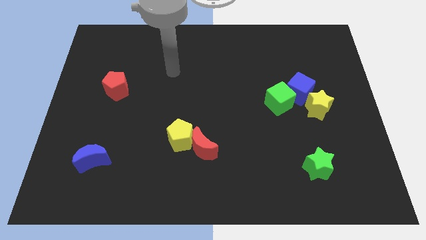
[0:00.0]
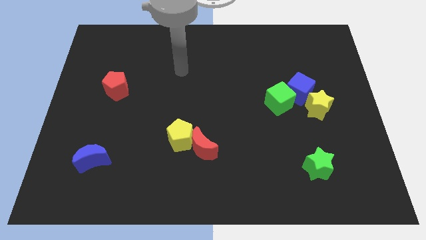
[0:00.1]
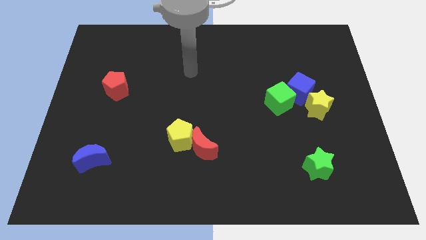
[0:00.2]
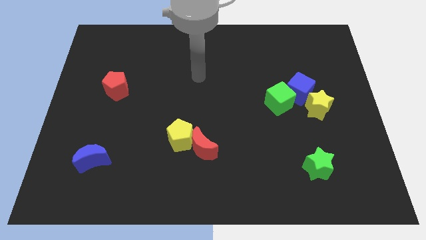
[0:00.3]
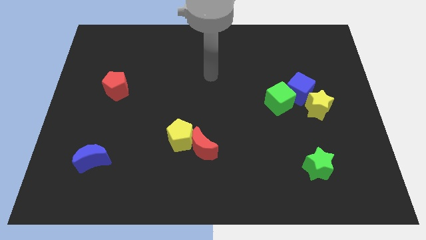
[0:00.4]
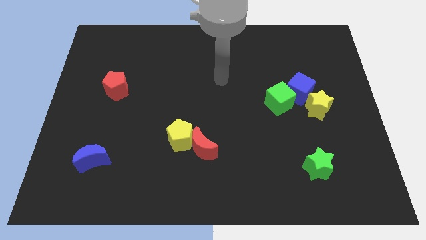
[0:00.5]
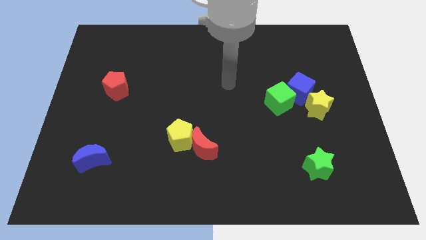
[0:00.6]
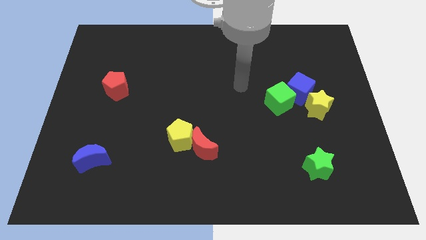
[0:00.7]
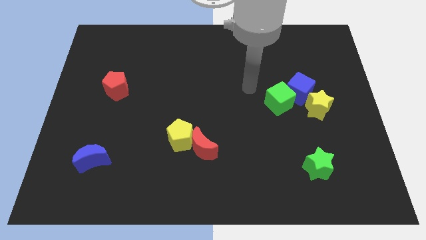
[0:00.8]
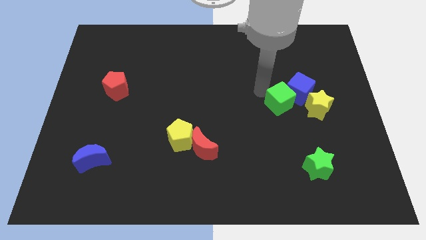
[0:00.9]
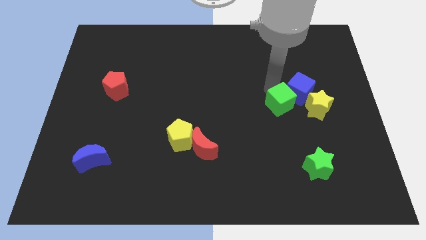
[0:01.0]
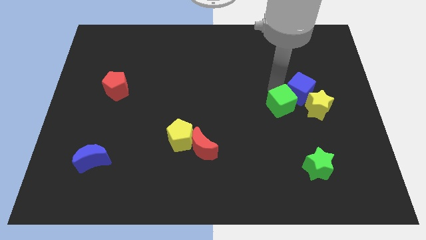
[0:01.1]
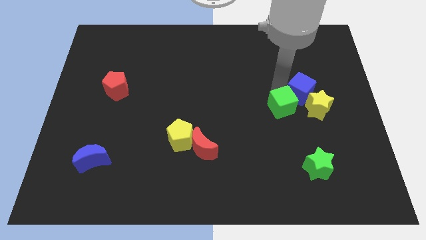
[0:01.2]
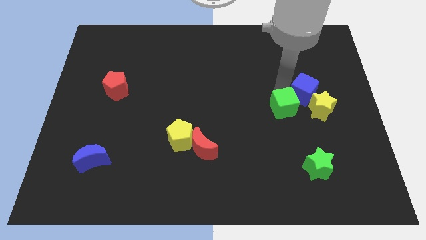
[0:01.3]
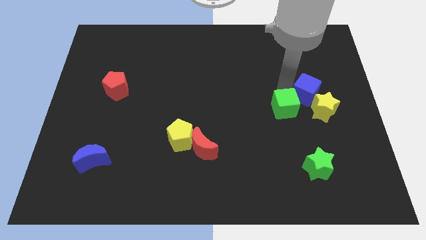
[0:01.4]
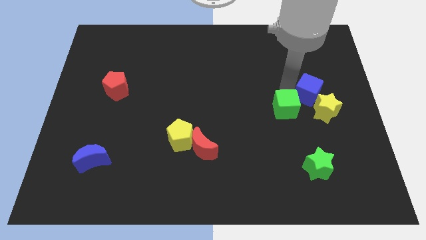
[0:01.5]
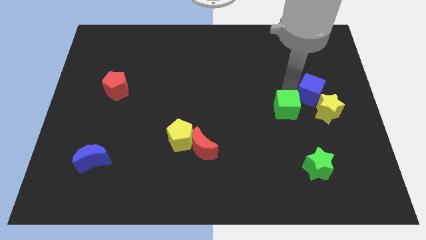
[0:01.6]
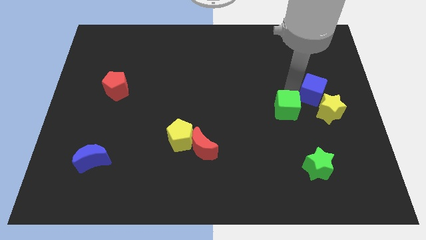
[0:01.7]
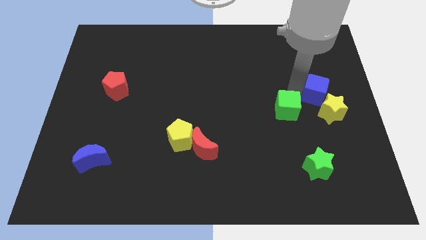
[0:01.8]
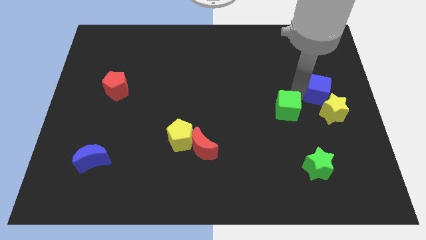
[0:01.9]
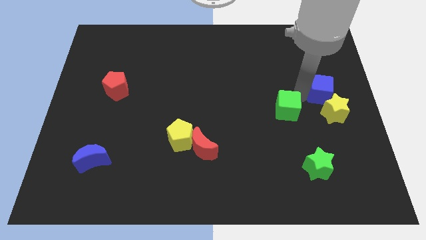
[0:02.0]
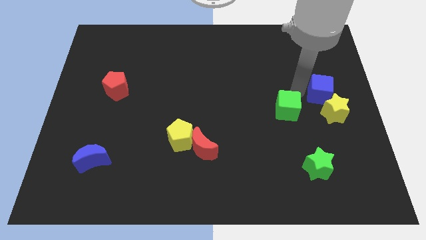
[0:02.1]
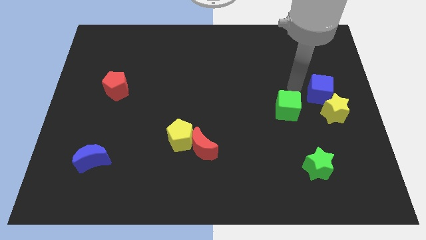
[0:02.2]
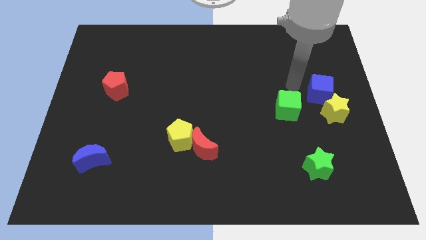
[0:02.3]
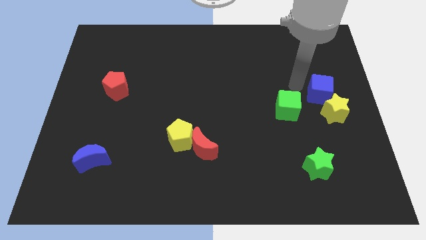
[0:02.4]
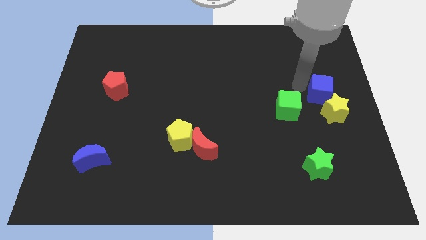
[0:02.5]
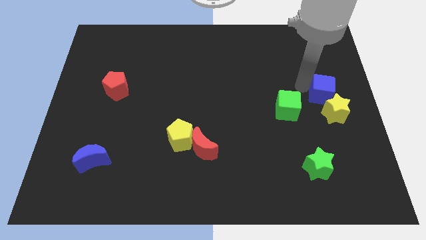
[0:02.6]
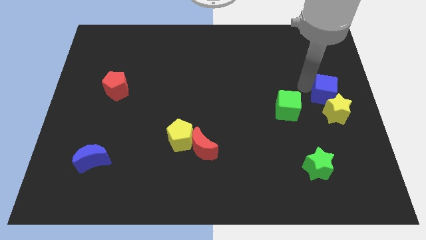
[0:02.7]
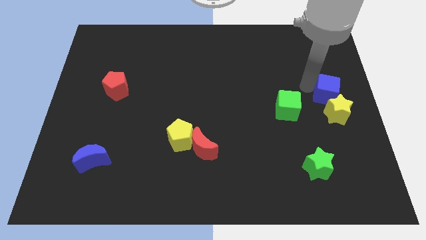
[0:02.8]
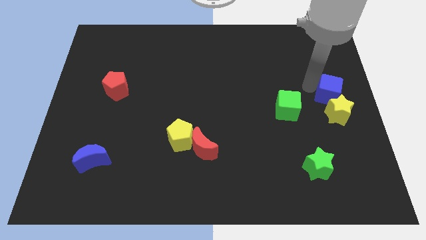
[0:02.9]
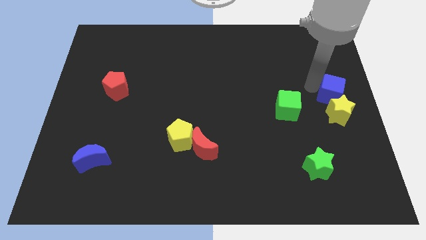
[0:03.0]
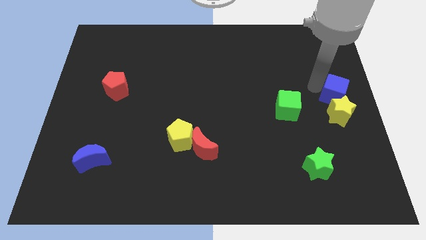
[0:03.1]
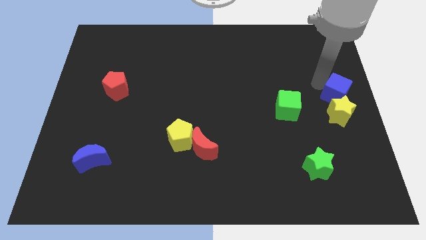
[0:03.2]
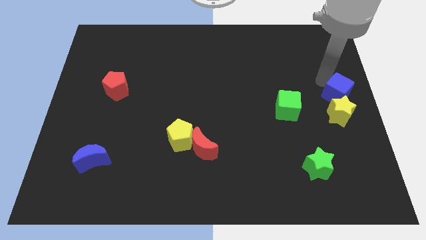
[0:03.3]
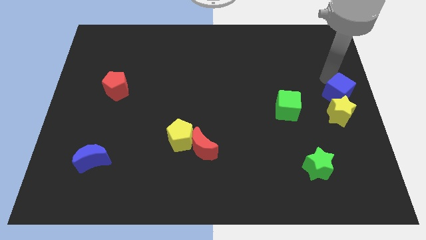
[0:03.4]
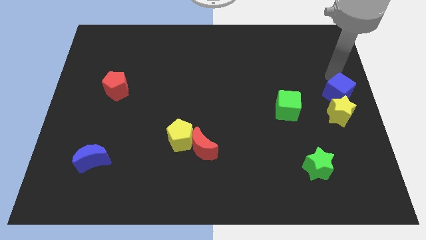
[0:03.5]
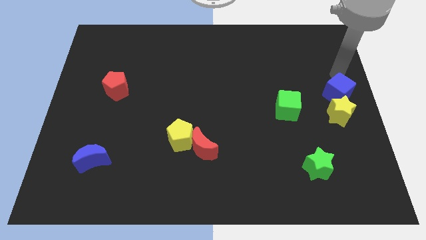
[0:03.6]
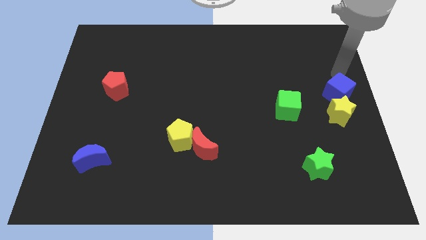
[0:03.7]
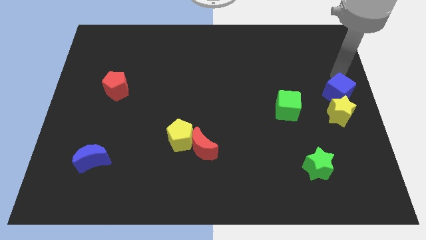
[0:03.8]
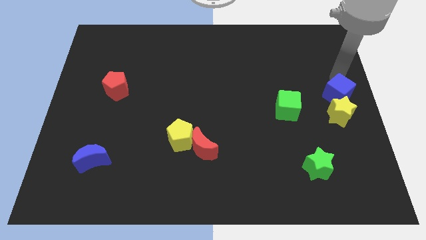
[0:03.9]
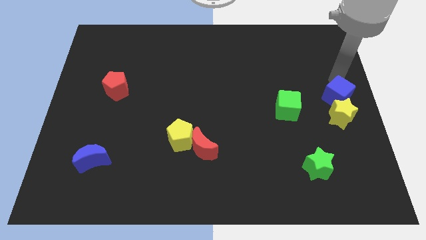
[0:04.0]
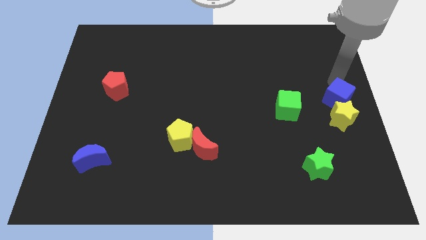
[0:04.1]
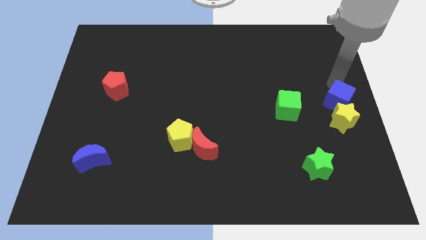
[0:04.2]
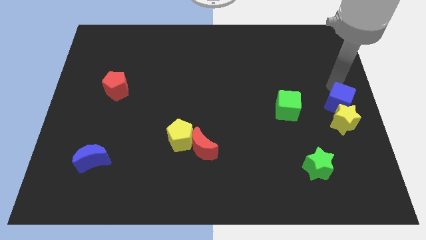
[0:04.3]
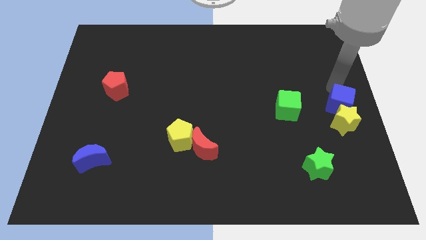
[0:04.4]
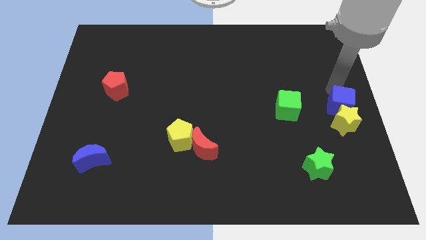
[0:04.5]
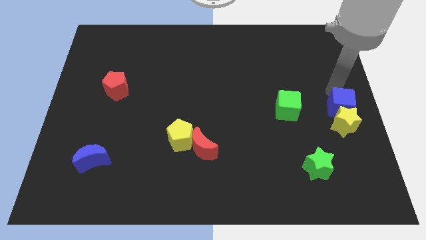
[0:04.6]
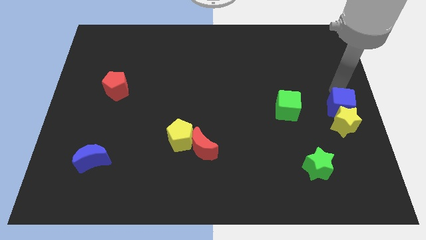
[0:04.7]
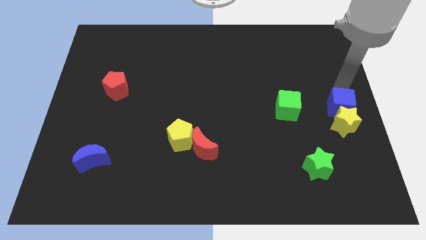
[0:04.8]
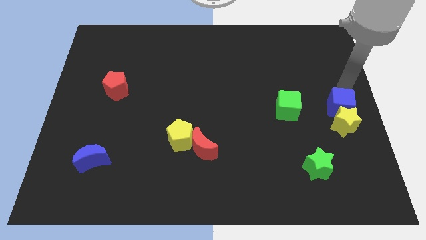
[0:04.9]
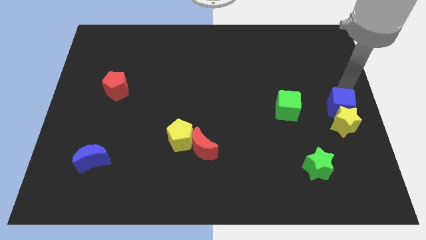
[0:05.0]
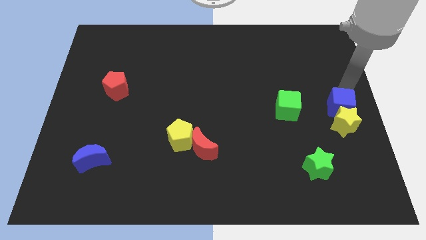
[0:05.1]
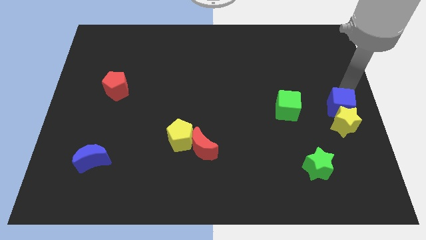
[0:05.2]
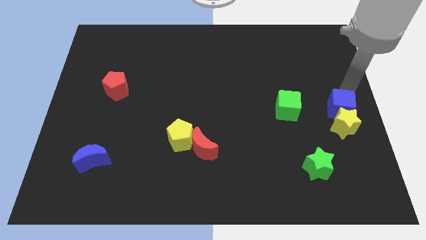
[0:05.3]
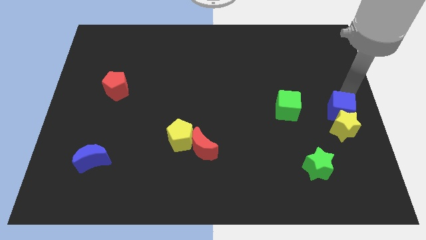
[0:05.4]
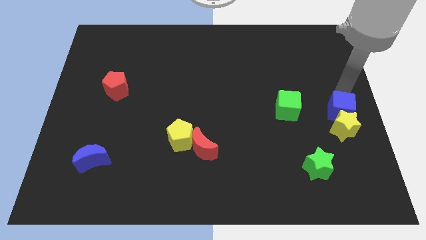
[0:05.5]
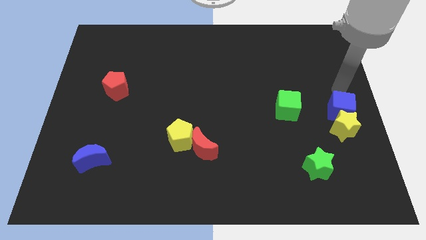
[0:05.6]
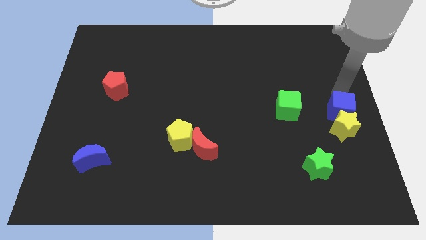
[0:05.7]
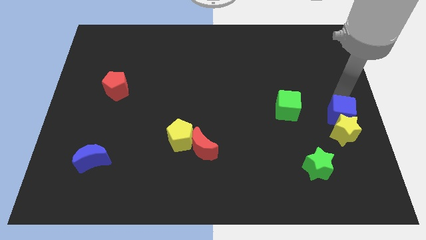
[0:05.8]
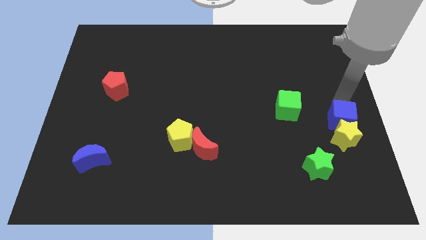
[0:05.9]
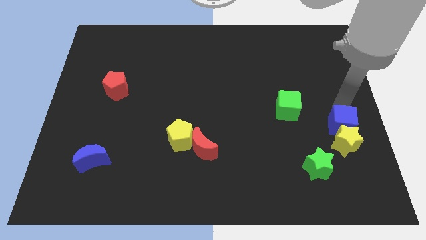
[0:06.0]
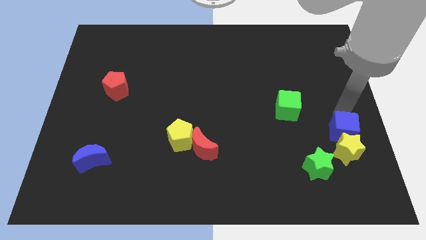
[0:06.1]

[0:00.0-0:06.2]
move the blue cube to the top right side of the green star

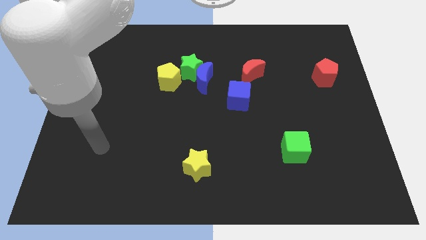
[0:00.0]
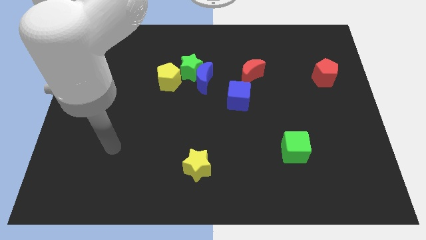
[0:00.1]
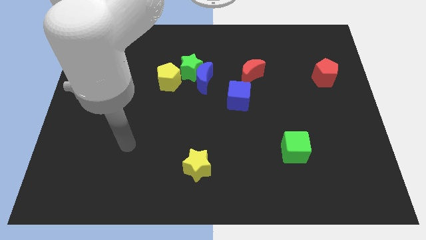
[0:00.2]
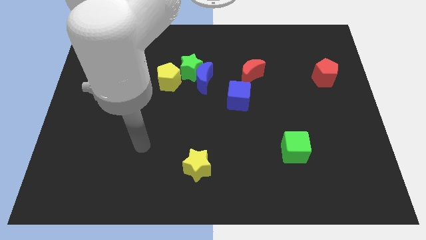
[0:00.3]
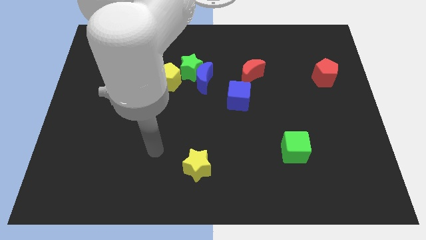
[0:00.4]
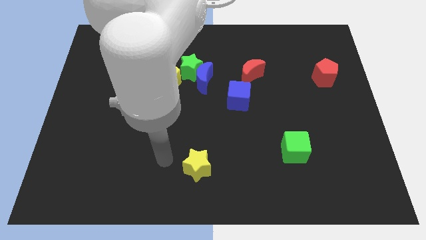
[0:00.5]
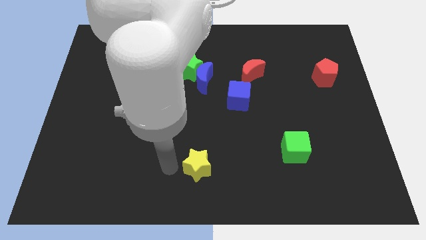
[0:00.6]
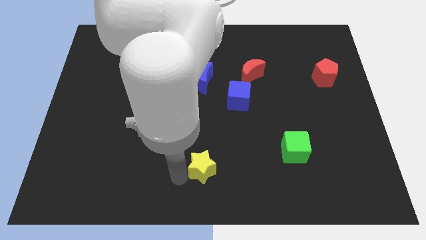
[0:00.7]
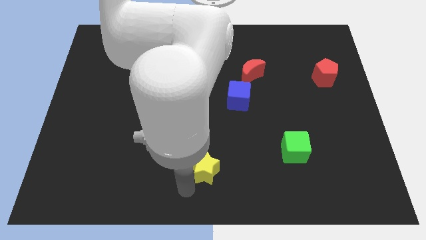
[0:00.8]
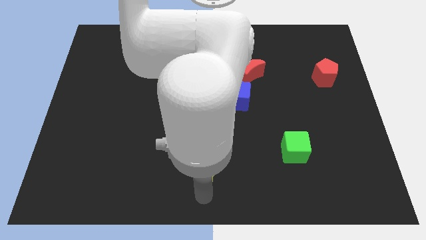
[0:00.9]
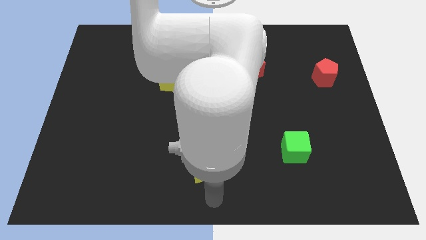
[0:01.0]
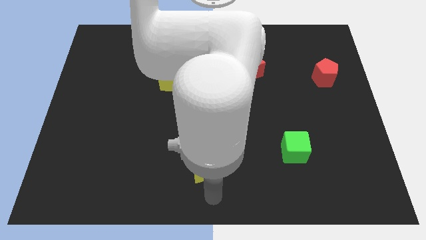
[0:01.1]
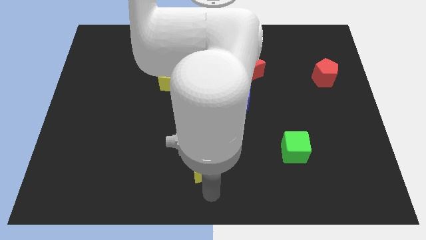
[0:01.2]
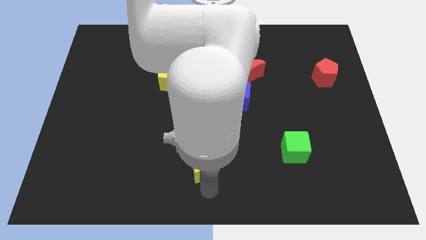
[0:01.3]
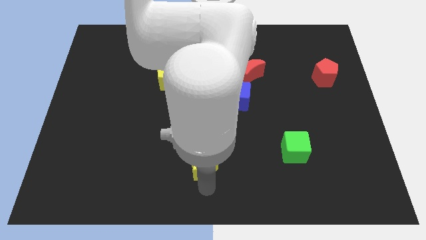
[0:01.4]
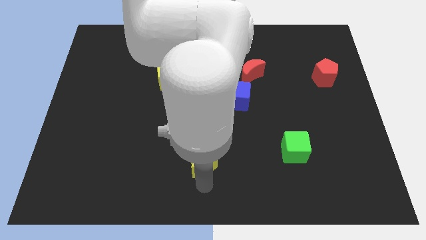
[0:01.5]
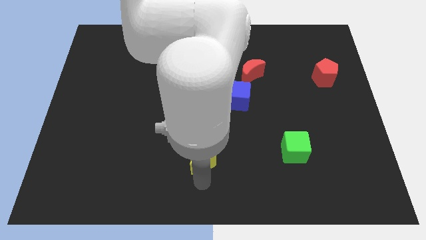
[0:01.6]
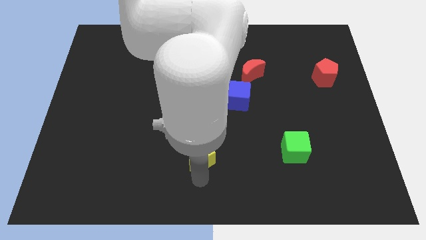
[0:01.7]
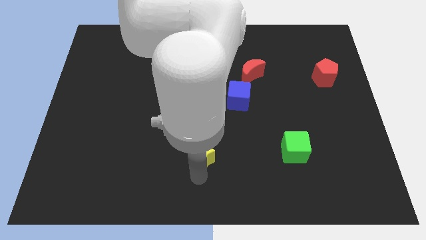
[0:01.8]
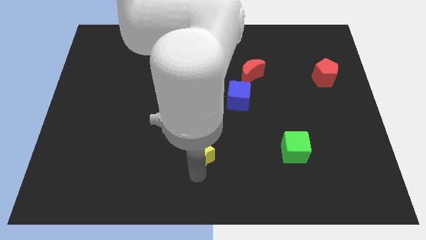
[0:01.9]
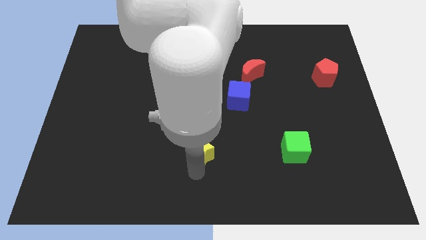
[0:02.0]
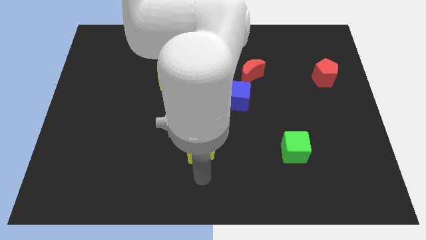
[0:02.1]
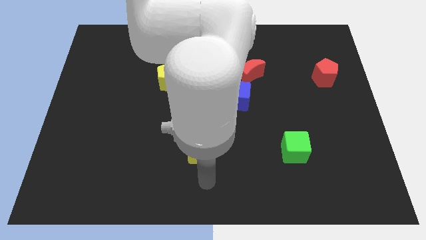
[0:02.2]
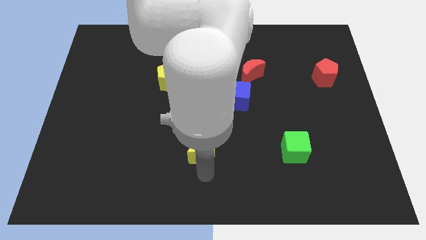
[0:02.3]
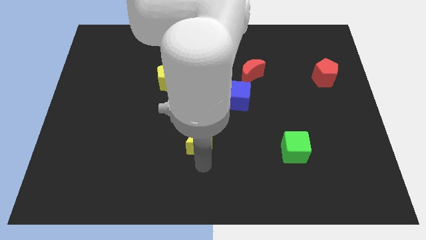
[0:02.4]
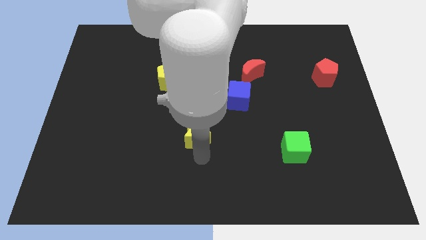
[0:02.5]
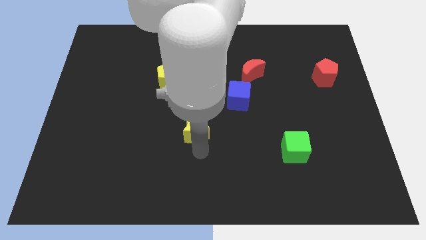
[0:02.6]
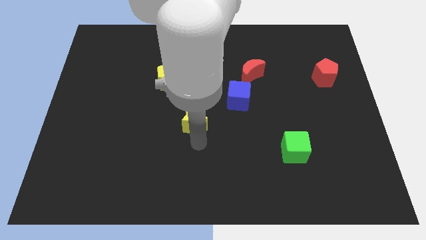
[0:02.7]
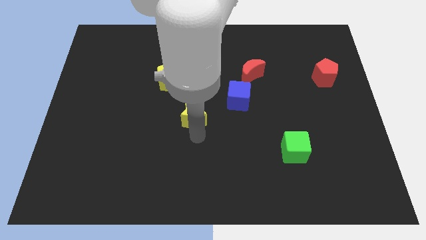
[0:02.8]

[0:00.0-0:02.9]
put the yellow star to the bottom of the green star
